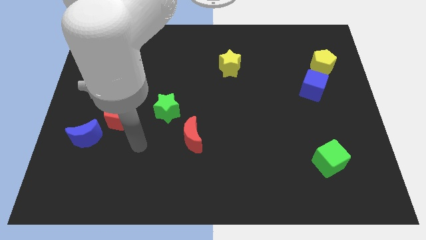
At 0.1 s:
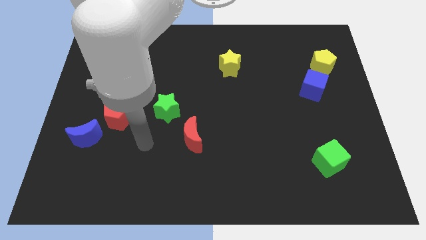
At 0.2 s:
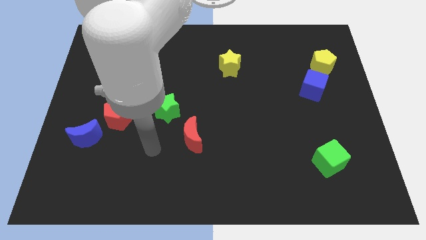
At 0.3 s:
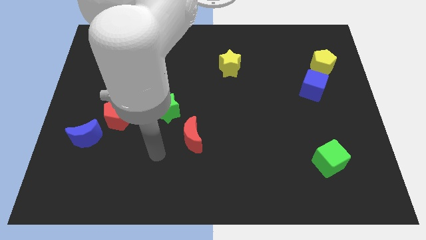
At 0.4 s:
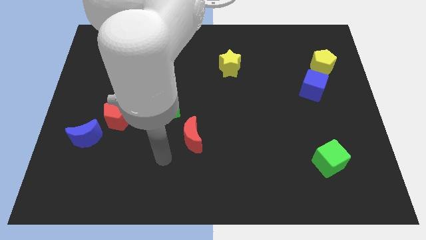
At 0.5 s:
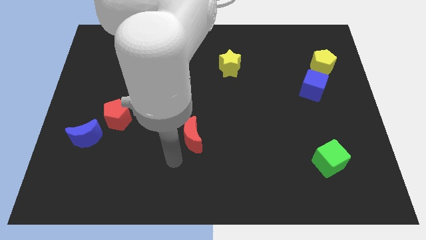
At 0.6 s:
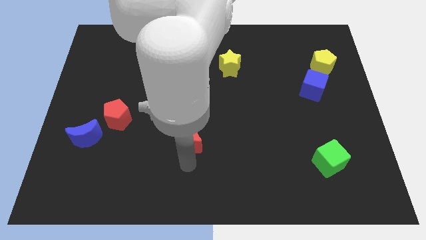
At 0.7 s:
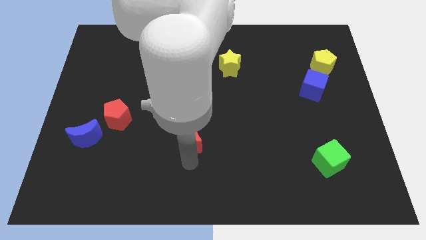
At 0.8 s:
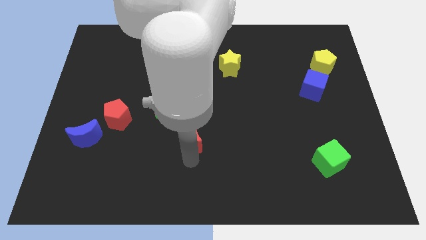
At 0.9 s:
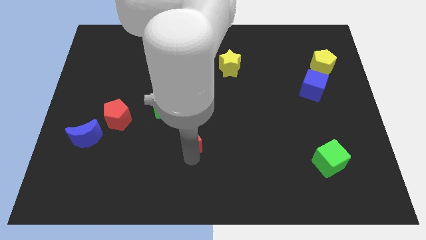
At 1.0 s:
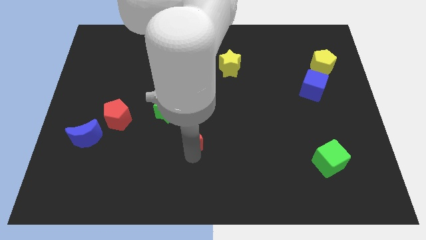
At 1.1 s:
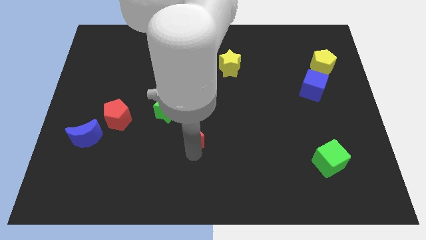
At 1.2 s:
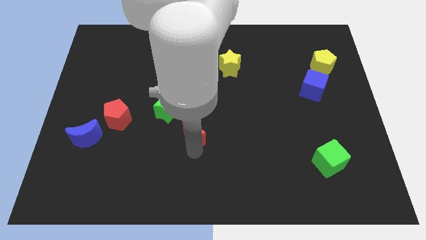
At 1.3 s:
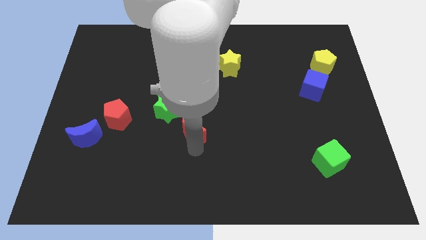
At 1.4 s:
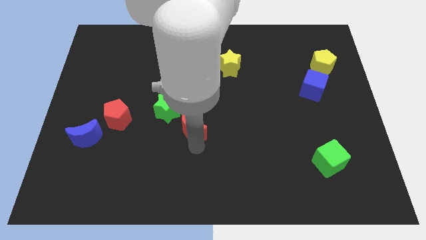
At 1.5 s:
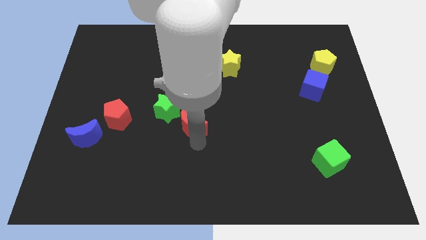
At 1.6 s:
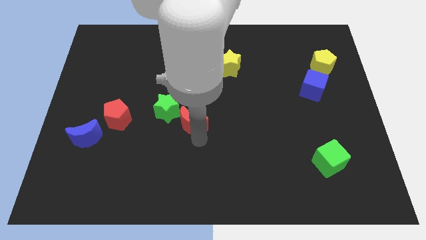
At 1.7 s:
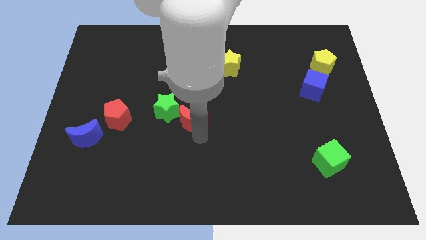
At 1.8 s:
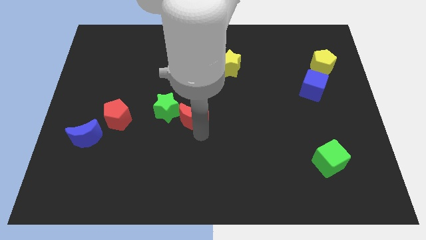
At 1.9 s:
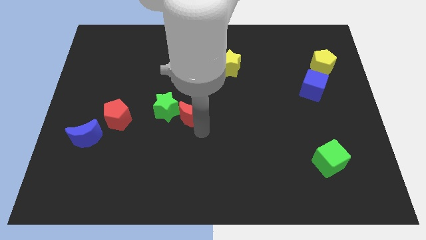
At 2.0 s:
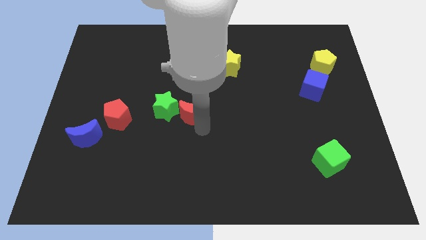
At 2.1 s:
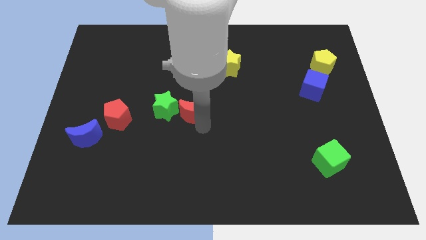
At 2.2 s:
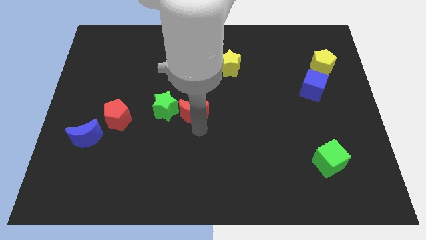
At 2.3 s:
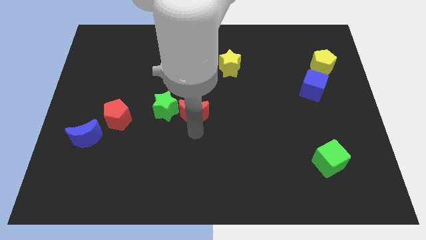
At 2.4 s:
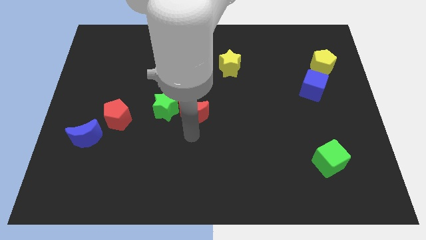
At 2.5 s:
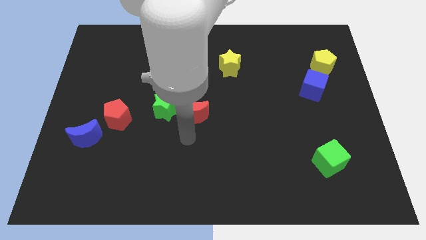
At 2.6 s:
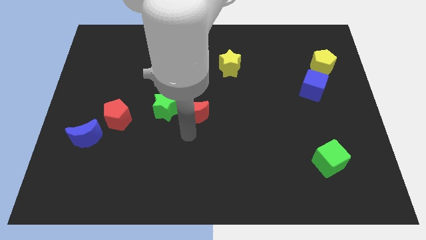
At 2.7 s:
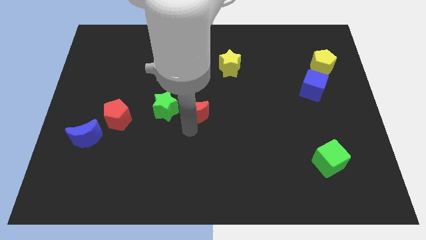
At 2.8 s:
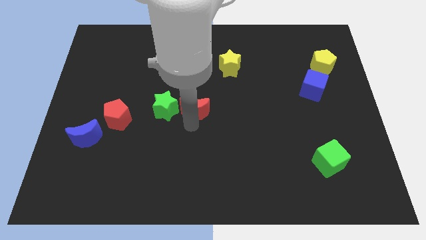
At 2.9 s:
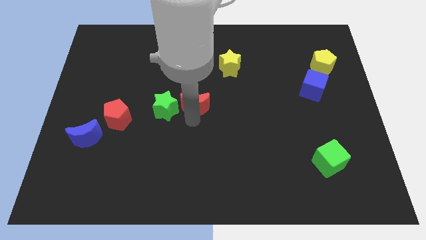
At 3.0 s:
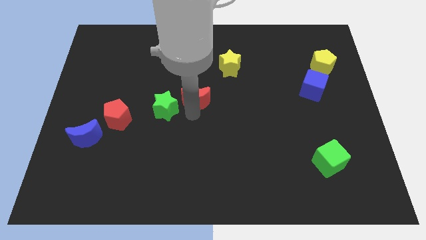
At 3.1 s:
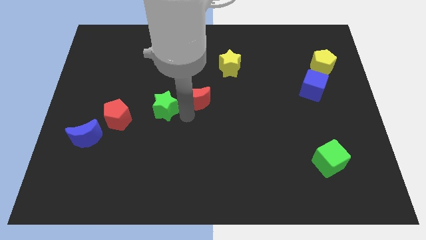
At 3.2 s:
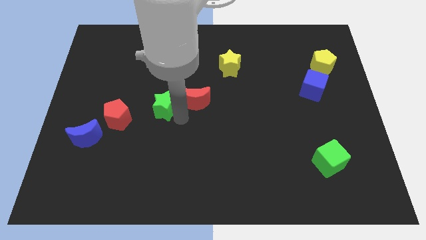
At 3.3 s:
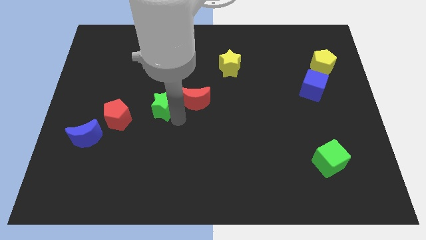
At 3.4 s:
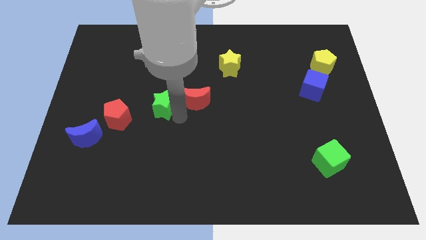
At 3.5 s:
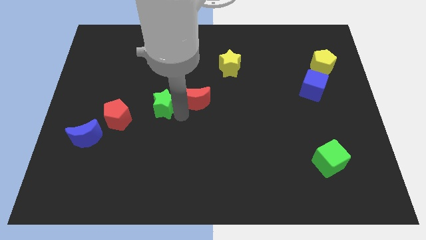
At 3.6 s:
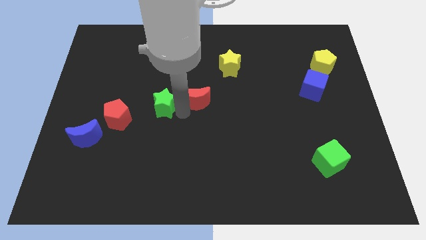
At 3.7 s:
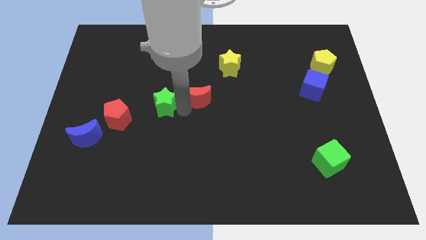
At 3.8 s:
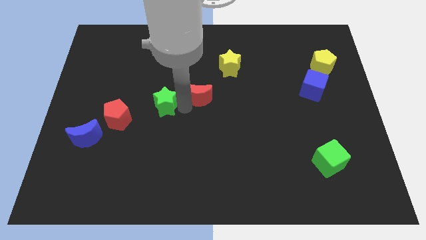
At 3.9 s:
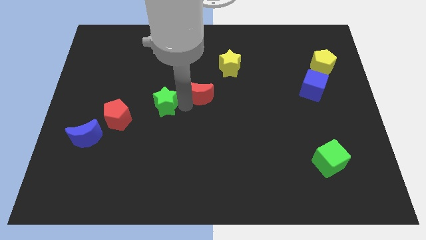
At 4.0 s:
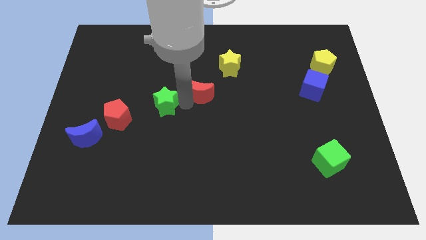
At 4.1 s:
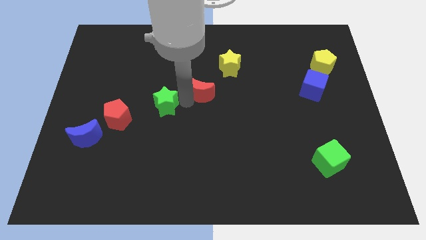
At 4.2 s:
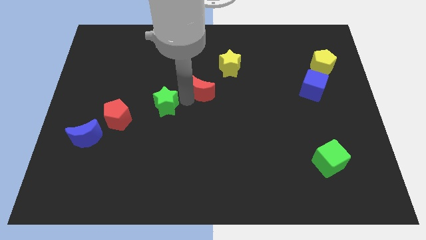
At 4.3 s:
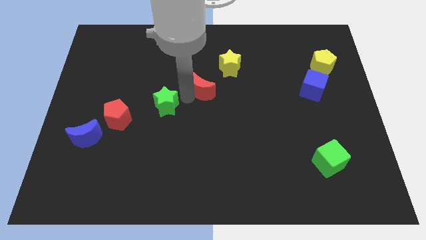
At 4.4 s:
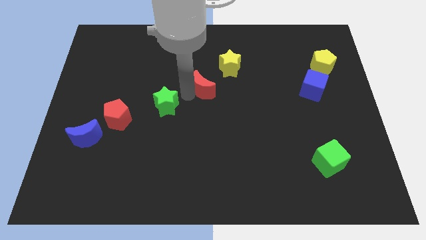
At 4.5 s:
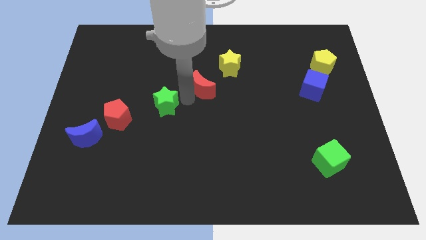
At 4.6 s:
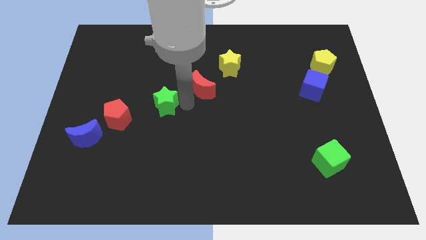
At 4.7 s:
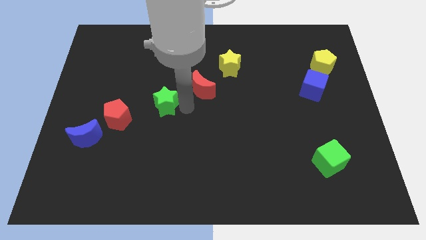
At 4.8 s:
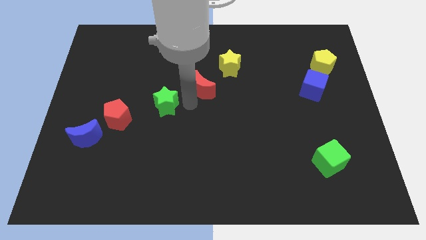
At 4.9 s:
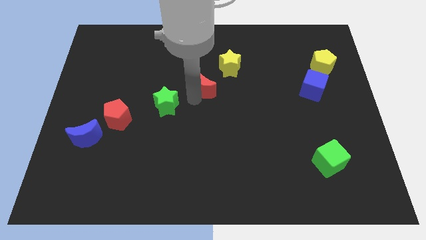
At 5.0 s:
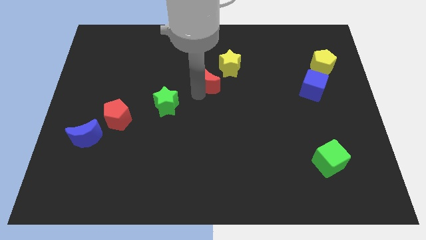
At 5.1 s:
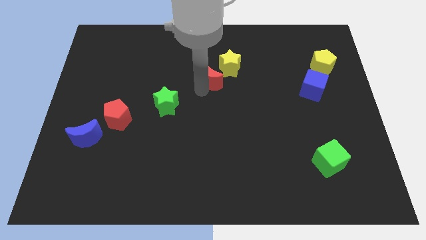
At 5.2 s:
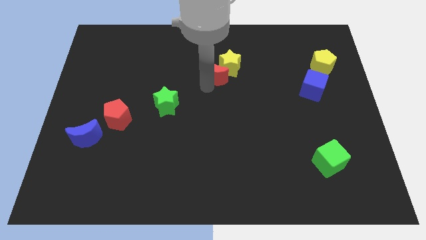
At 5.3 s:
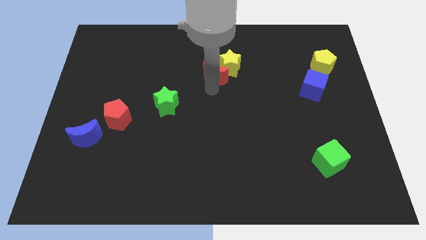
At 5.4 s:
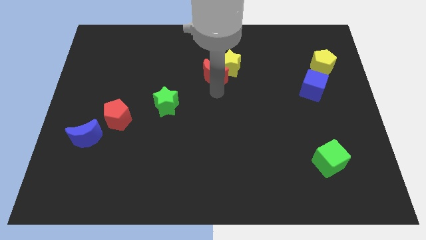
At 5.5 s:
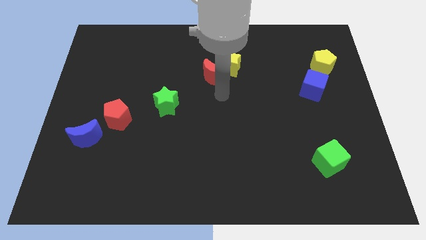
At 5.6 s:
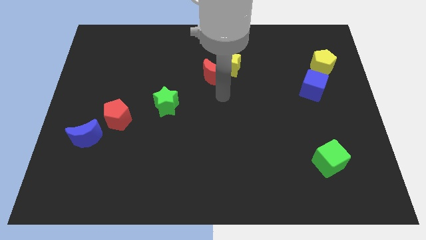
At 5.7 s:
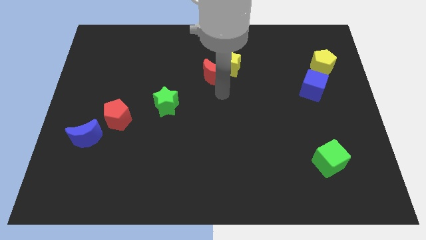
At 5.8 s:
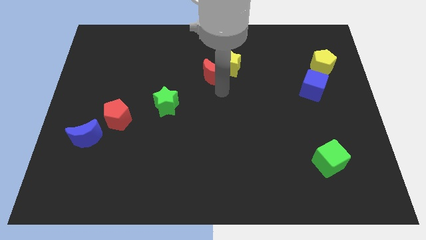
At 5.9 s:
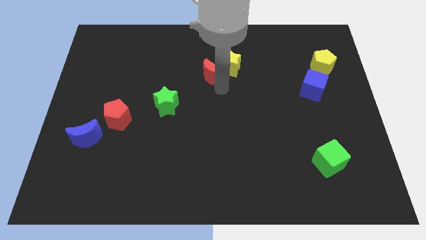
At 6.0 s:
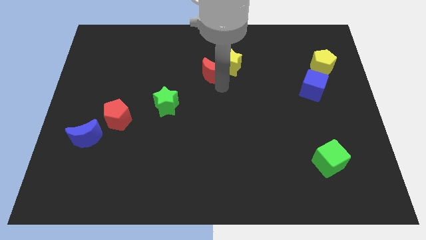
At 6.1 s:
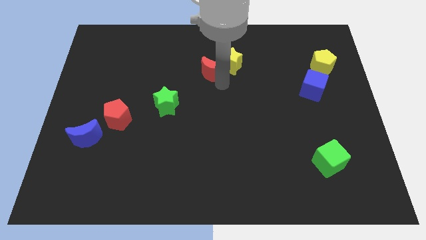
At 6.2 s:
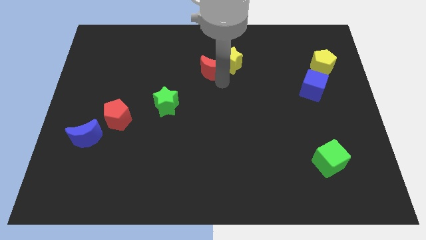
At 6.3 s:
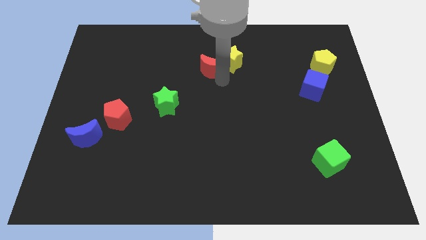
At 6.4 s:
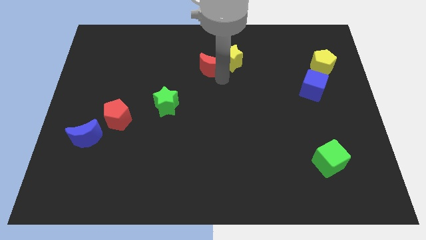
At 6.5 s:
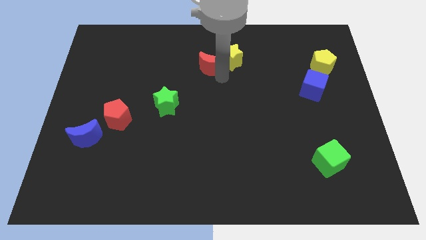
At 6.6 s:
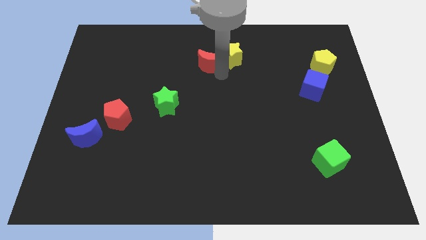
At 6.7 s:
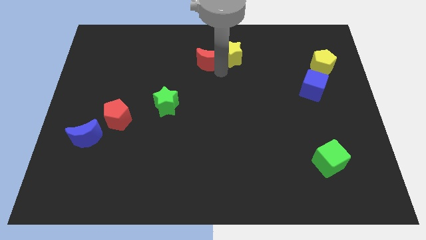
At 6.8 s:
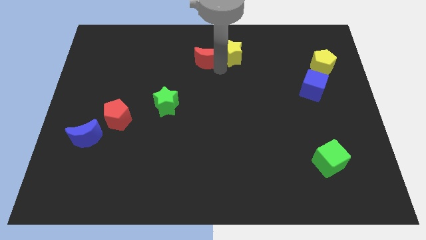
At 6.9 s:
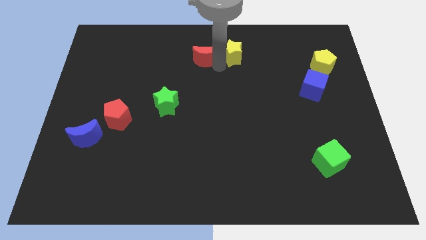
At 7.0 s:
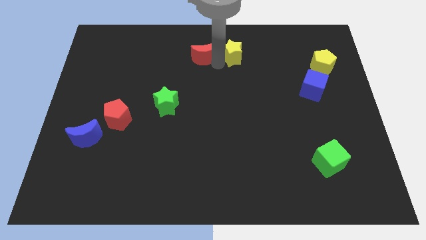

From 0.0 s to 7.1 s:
put the red moon to the top side
